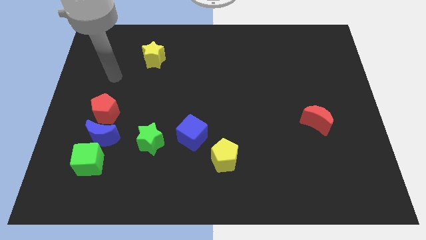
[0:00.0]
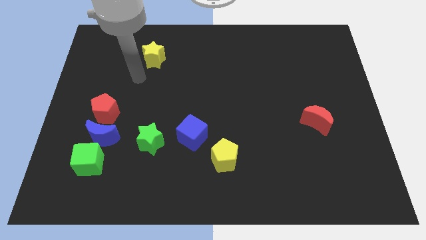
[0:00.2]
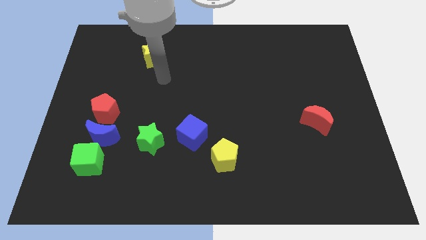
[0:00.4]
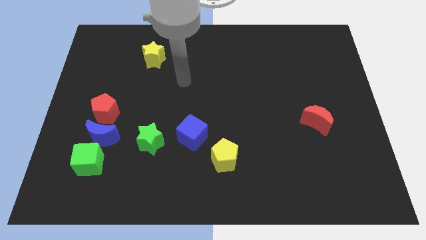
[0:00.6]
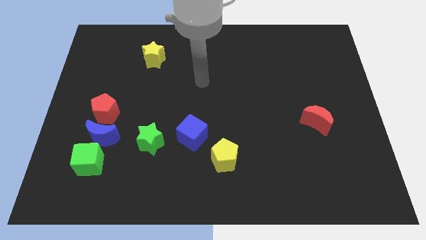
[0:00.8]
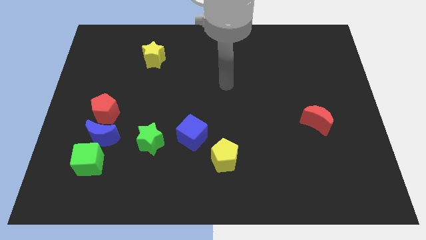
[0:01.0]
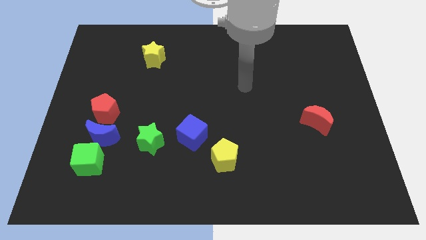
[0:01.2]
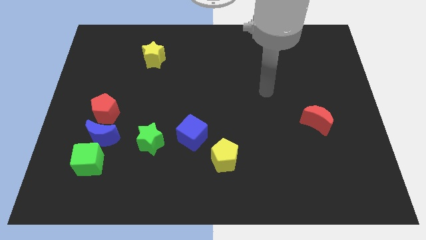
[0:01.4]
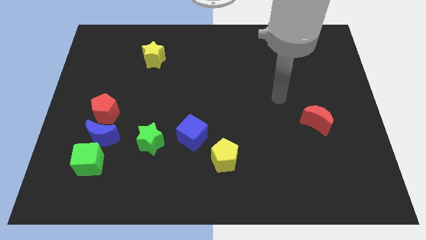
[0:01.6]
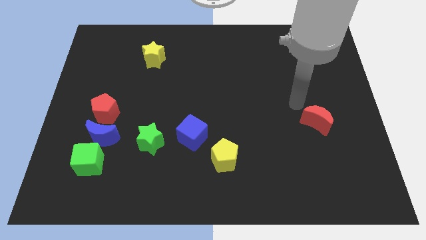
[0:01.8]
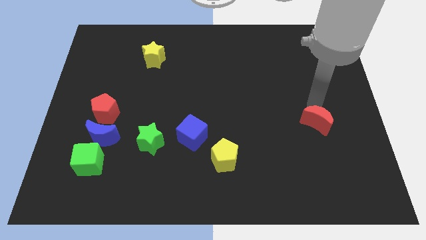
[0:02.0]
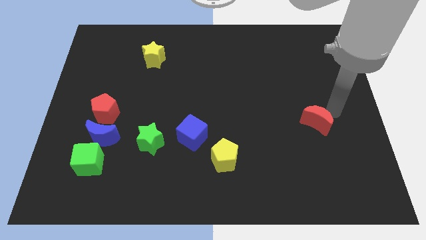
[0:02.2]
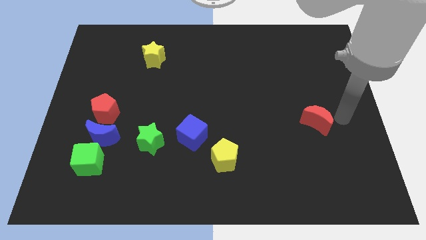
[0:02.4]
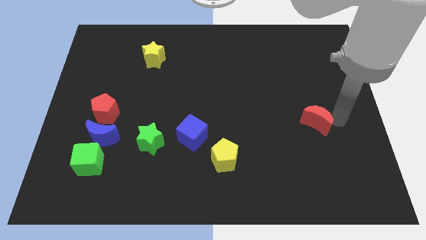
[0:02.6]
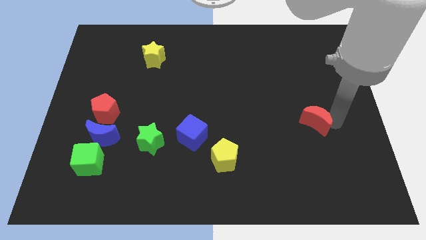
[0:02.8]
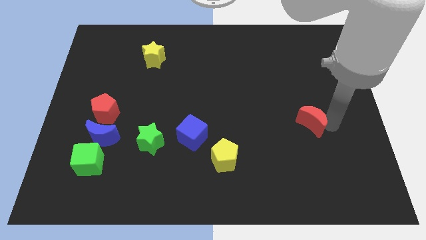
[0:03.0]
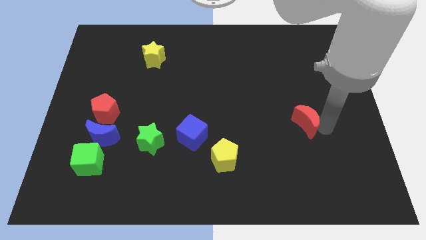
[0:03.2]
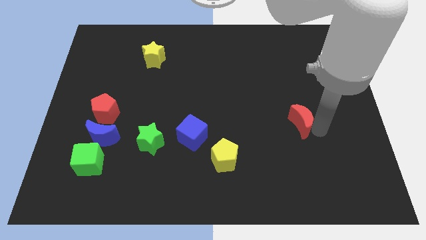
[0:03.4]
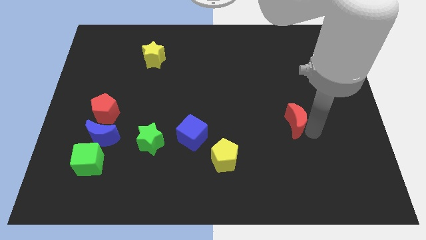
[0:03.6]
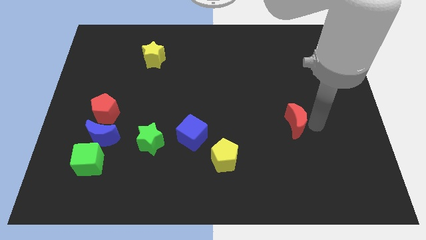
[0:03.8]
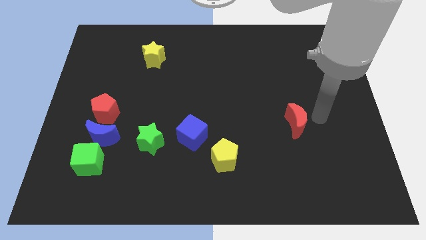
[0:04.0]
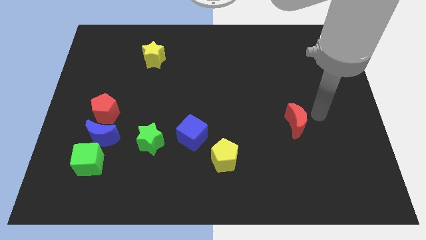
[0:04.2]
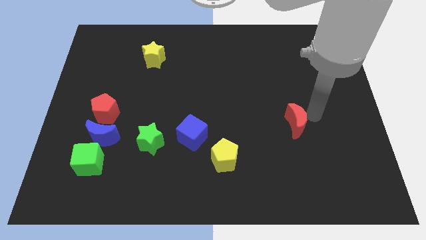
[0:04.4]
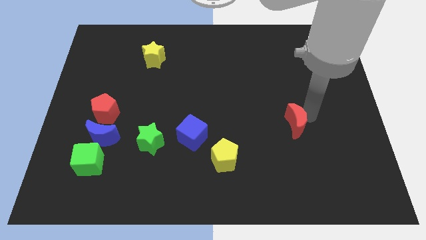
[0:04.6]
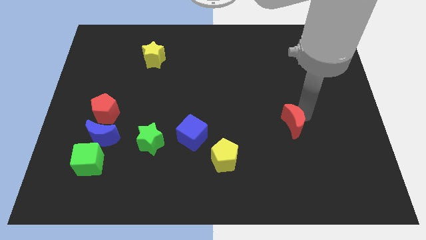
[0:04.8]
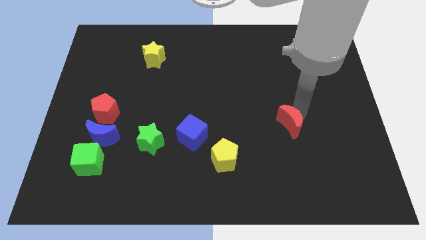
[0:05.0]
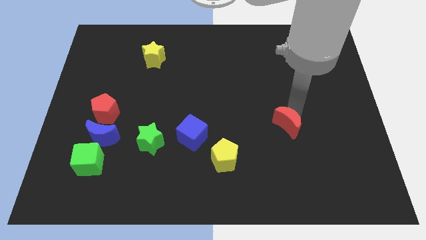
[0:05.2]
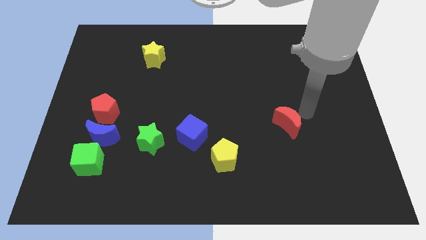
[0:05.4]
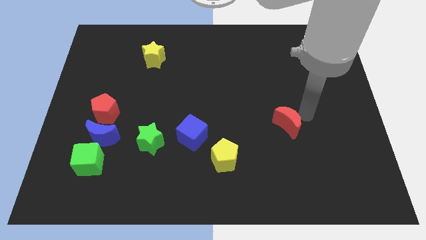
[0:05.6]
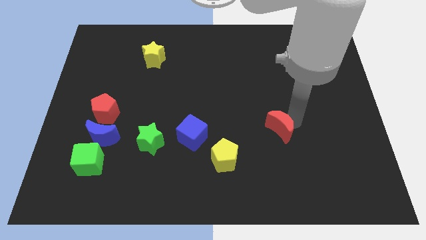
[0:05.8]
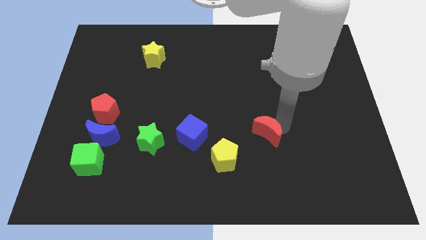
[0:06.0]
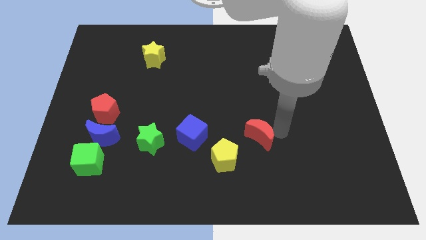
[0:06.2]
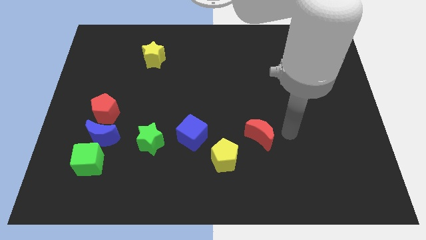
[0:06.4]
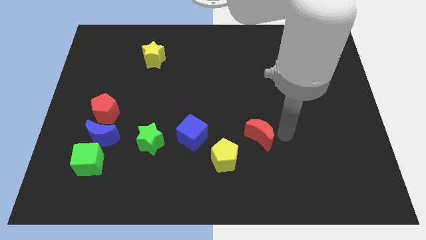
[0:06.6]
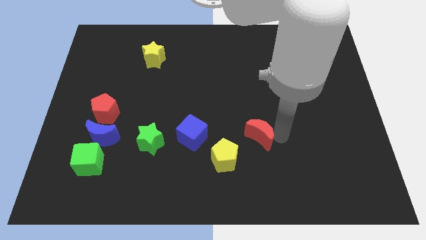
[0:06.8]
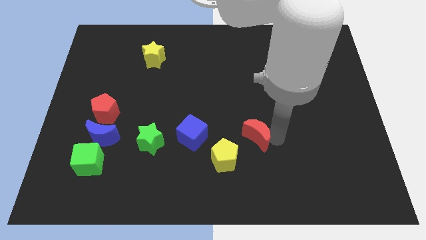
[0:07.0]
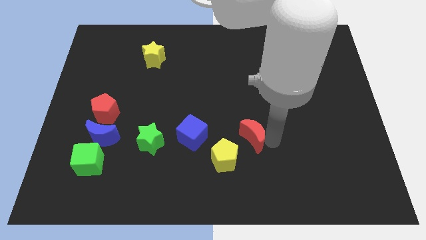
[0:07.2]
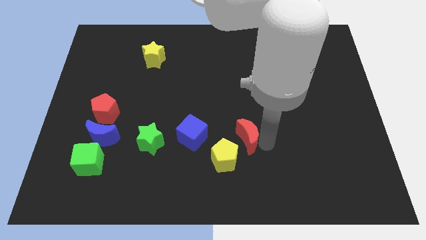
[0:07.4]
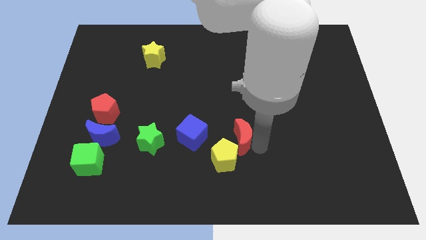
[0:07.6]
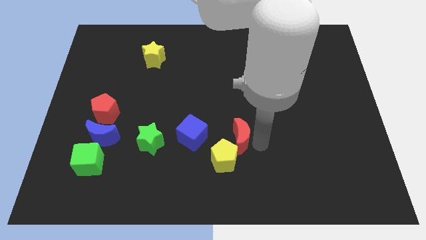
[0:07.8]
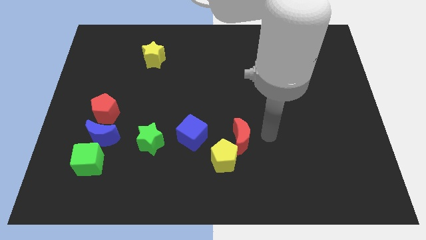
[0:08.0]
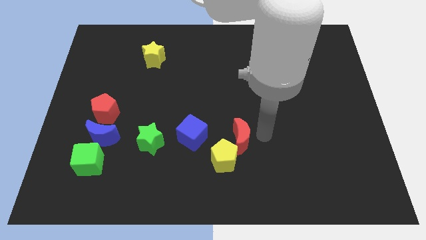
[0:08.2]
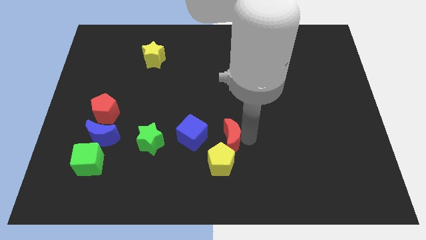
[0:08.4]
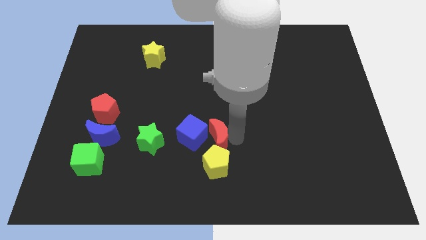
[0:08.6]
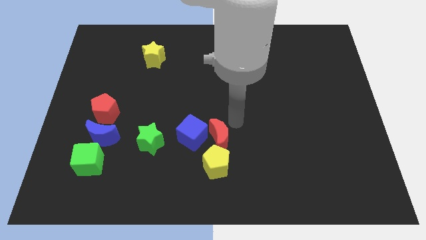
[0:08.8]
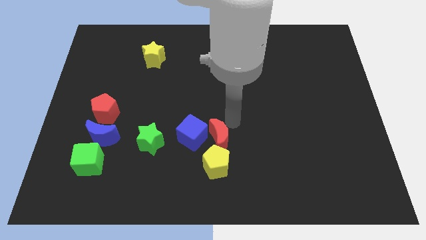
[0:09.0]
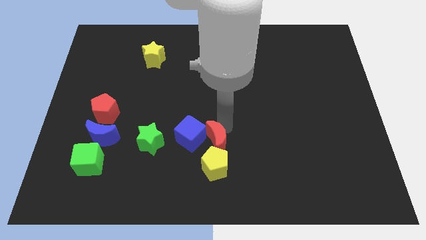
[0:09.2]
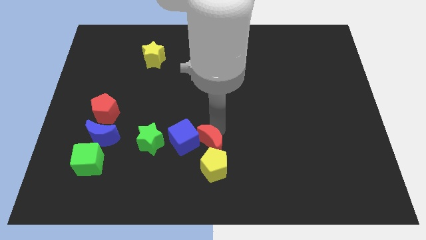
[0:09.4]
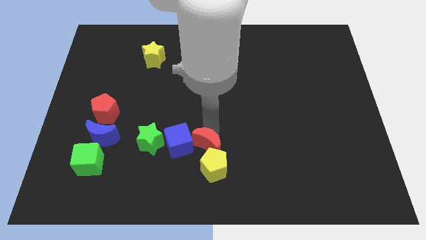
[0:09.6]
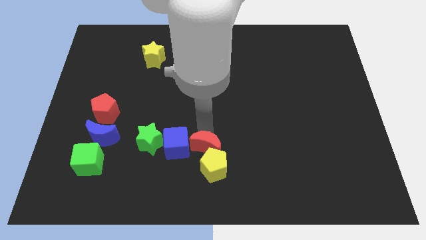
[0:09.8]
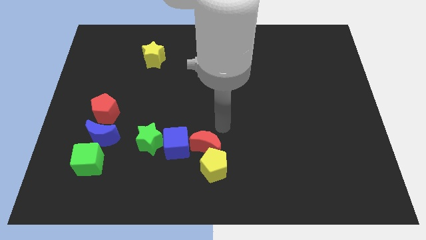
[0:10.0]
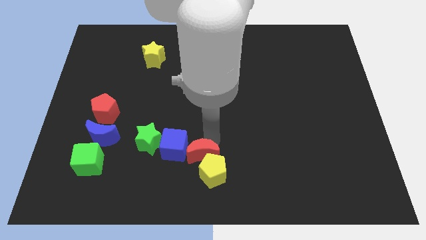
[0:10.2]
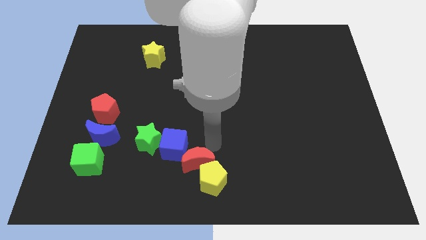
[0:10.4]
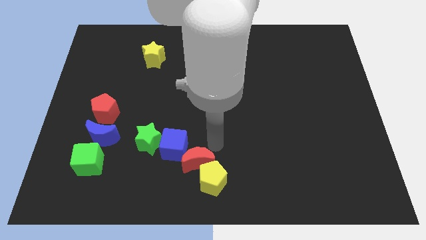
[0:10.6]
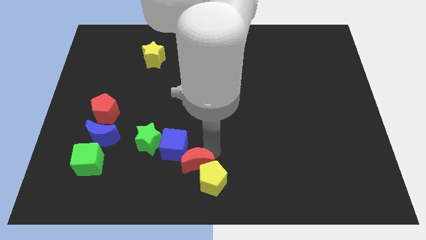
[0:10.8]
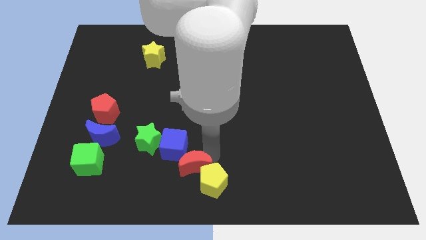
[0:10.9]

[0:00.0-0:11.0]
put the red moon to the bottom side of the blue cube

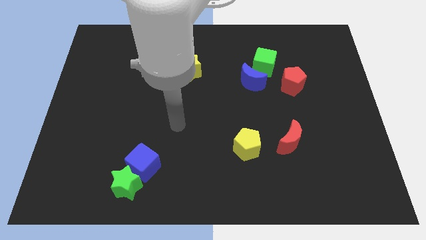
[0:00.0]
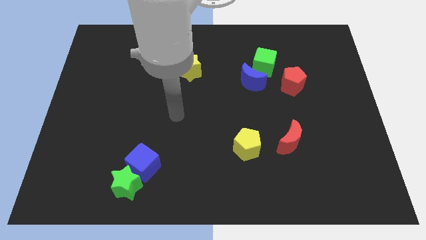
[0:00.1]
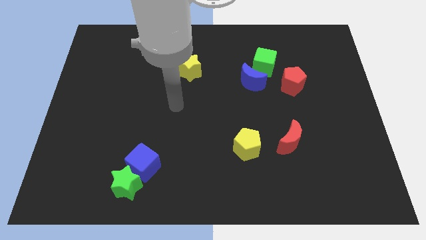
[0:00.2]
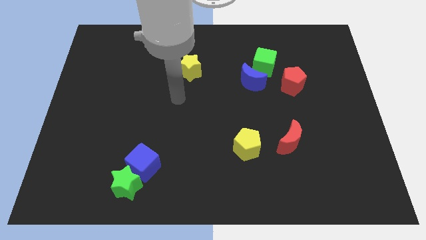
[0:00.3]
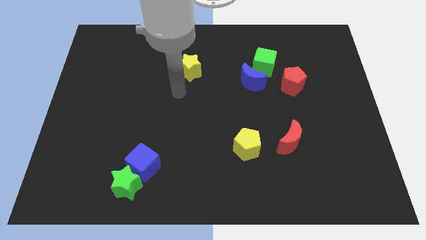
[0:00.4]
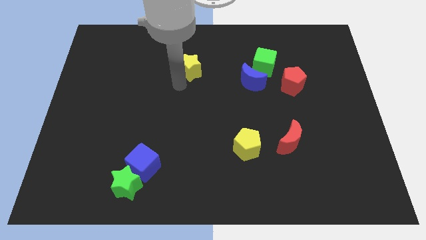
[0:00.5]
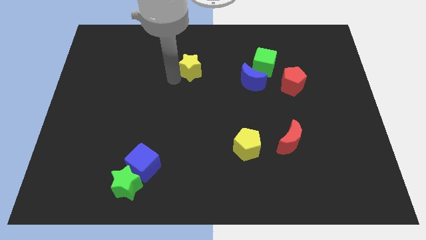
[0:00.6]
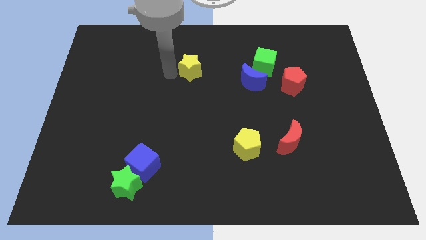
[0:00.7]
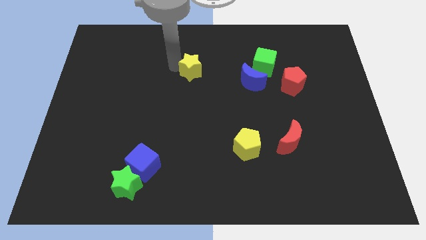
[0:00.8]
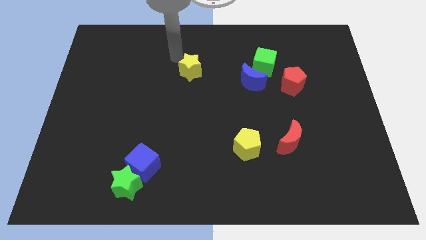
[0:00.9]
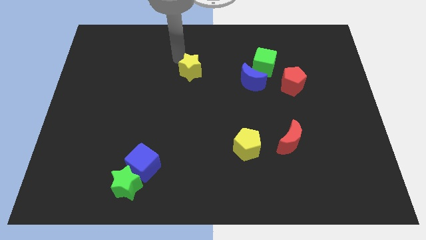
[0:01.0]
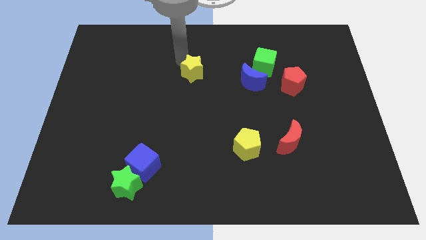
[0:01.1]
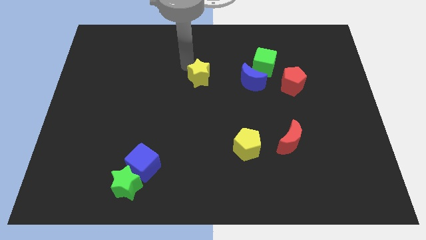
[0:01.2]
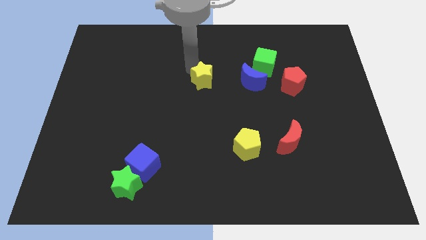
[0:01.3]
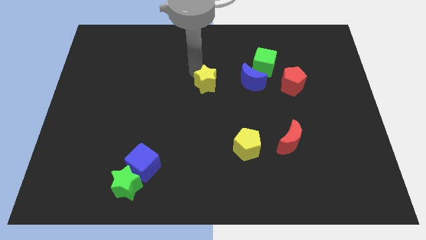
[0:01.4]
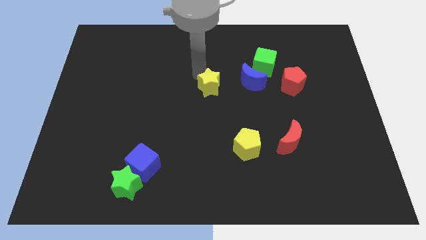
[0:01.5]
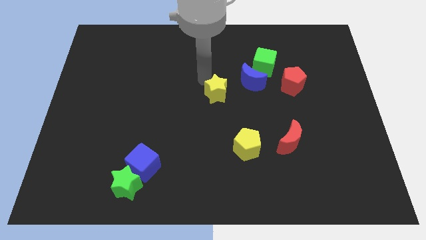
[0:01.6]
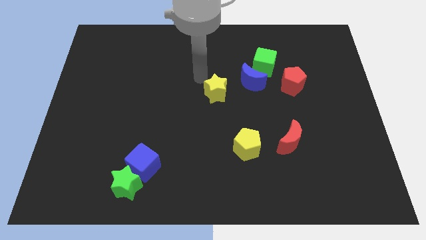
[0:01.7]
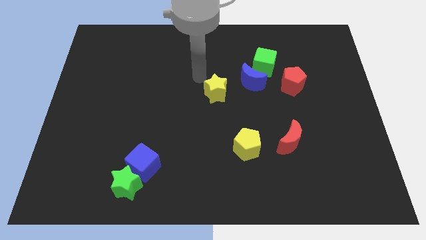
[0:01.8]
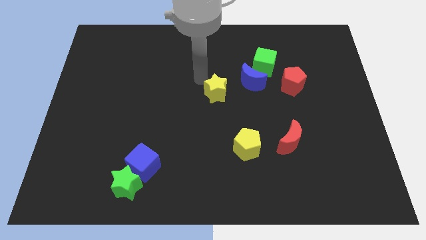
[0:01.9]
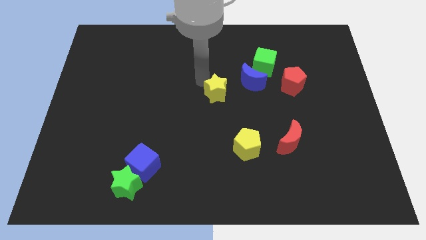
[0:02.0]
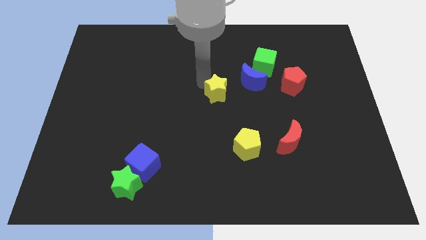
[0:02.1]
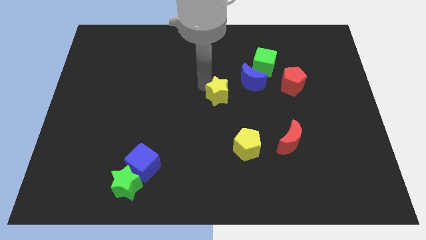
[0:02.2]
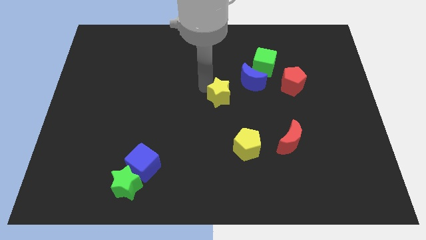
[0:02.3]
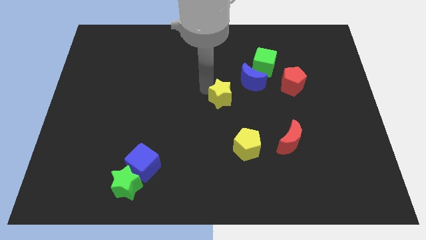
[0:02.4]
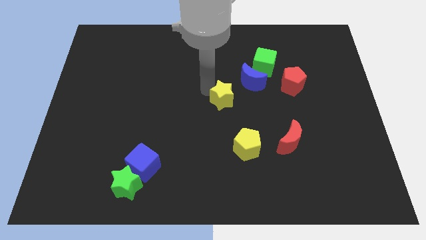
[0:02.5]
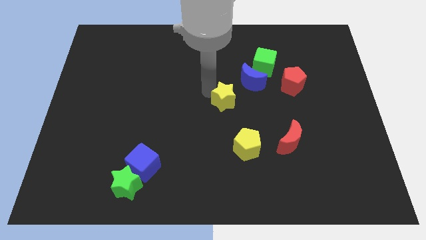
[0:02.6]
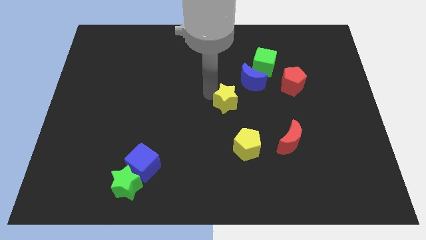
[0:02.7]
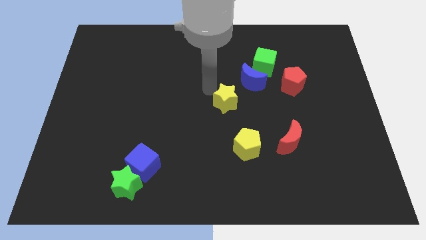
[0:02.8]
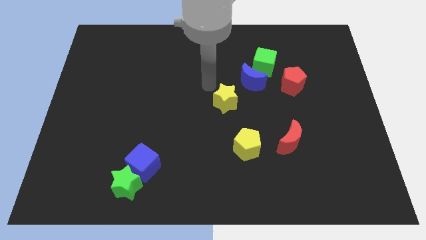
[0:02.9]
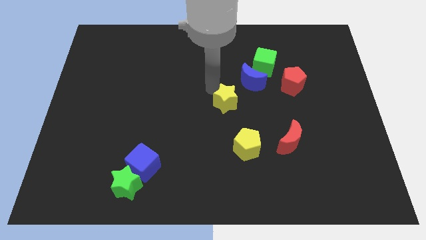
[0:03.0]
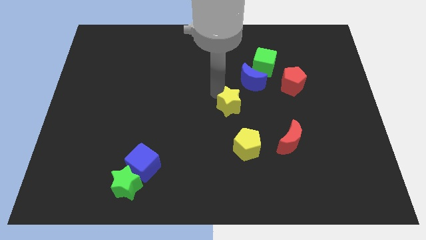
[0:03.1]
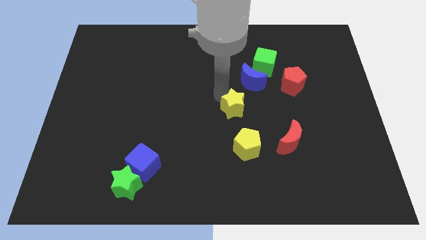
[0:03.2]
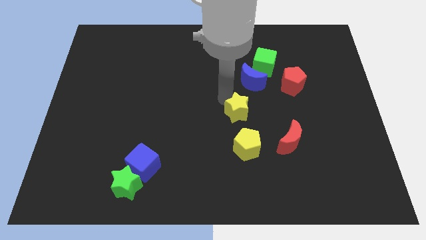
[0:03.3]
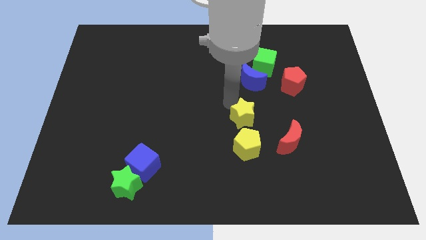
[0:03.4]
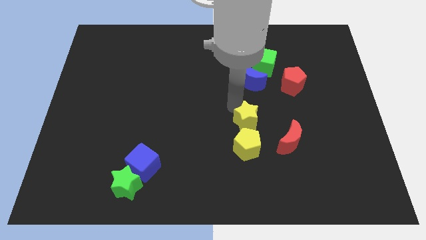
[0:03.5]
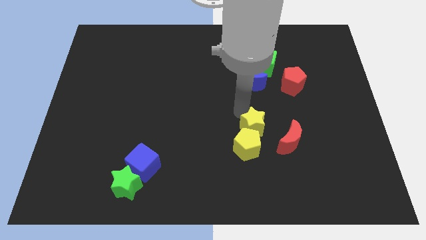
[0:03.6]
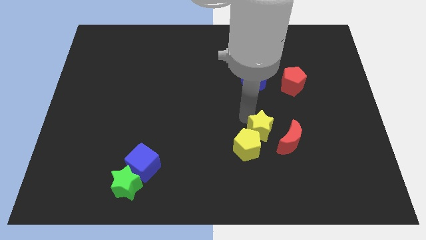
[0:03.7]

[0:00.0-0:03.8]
push the yellow star to the right side of the yellow pentagon
